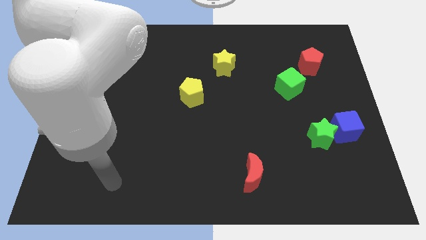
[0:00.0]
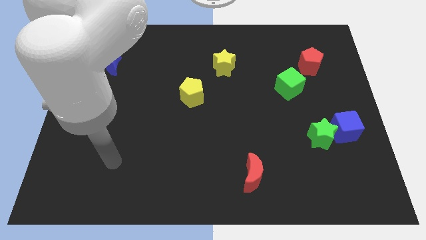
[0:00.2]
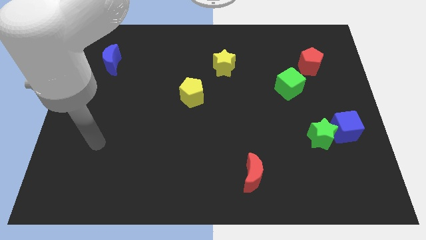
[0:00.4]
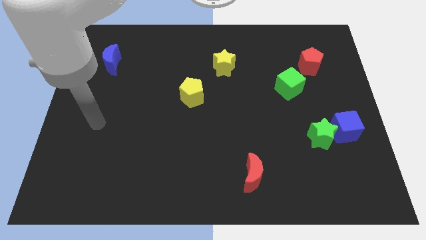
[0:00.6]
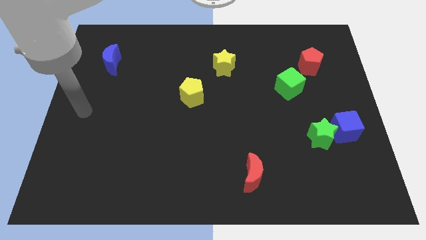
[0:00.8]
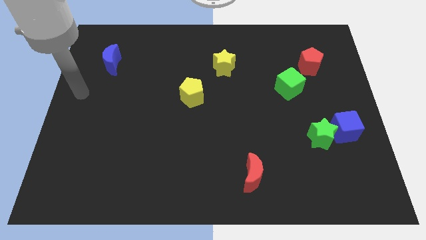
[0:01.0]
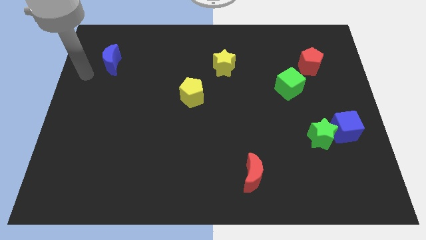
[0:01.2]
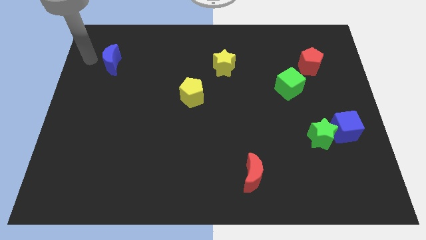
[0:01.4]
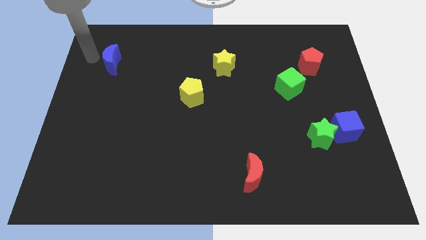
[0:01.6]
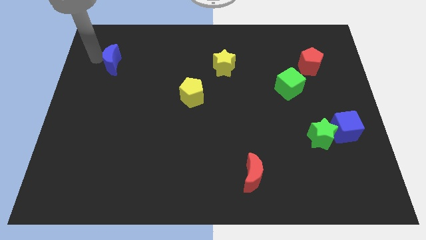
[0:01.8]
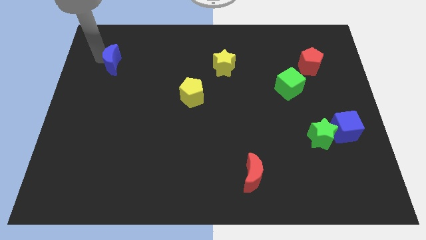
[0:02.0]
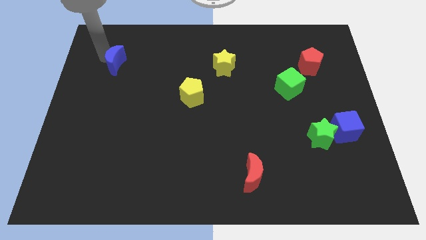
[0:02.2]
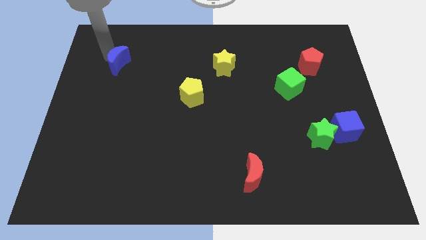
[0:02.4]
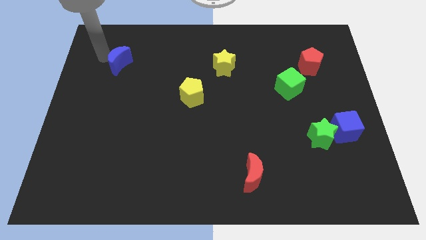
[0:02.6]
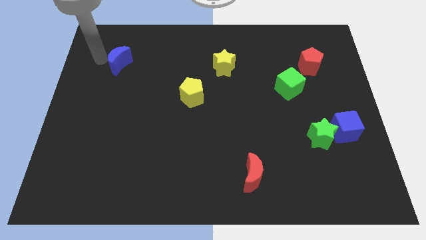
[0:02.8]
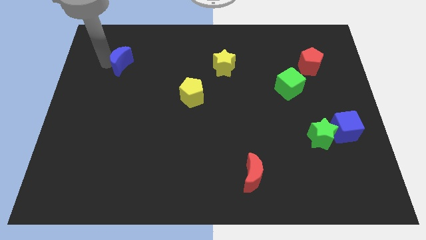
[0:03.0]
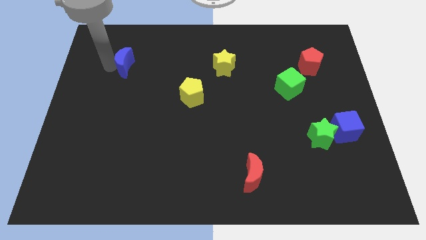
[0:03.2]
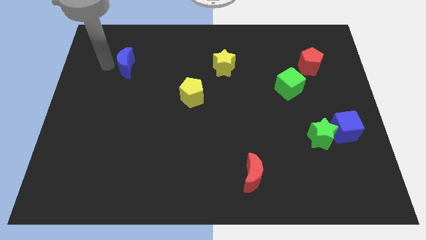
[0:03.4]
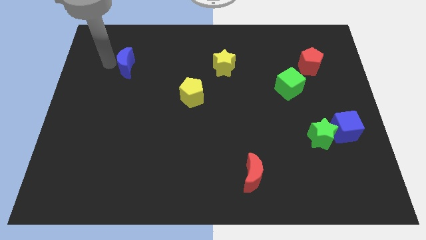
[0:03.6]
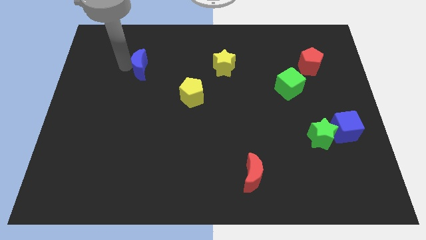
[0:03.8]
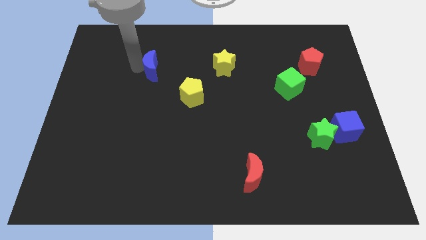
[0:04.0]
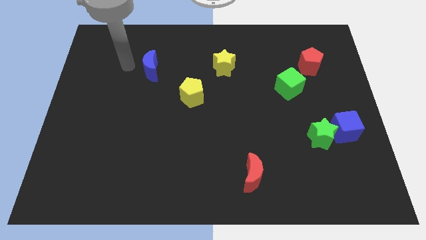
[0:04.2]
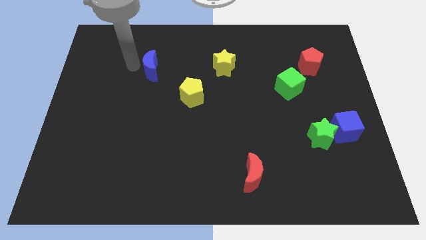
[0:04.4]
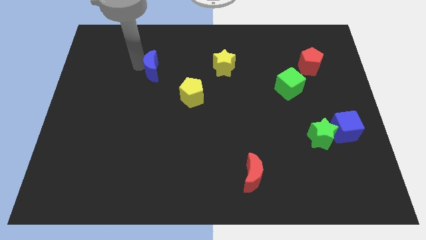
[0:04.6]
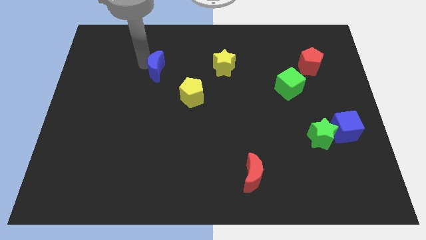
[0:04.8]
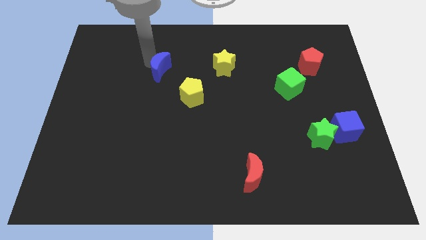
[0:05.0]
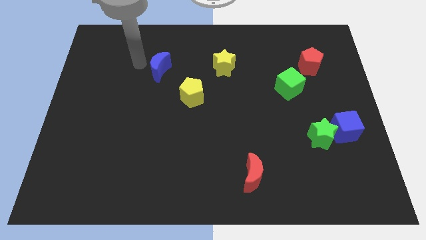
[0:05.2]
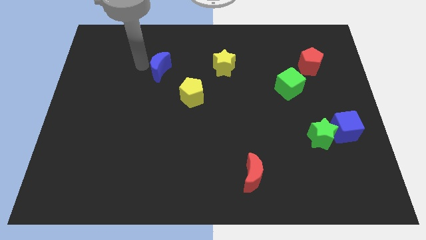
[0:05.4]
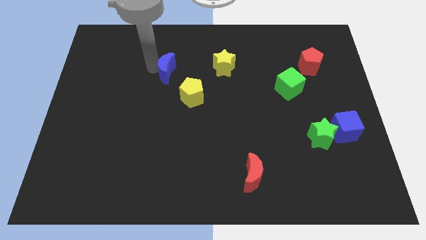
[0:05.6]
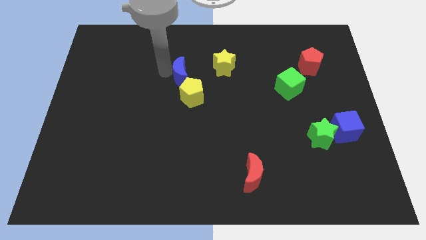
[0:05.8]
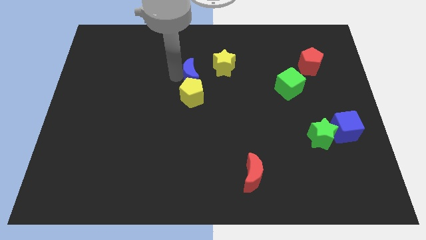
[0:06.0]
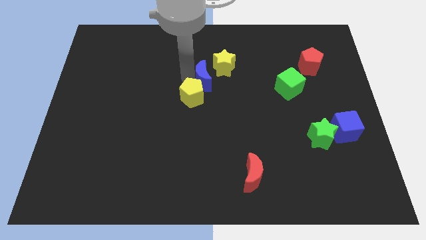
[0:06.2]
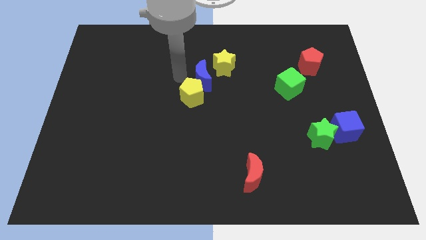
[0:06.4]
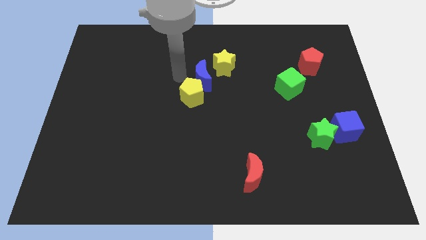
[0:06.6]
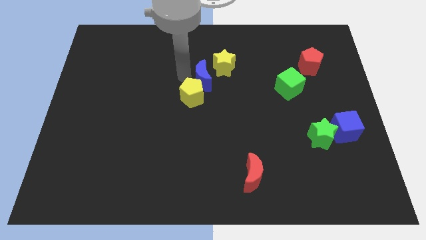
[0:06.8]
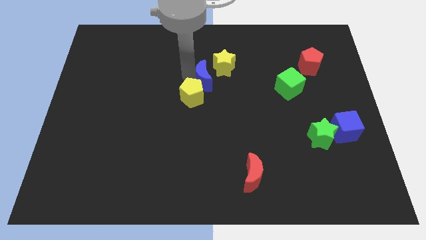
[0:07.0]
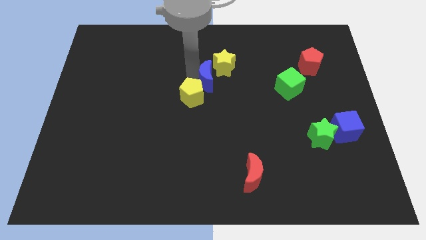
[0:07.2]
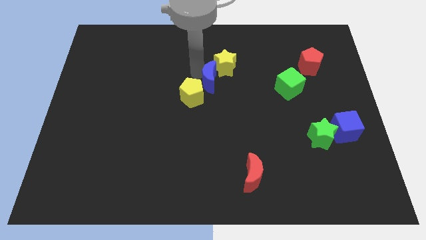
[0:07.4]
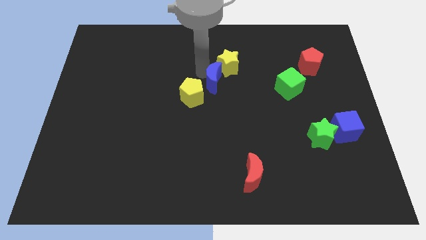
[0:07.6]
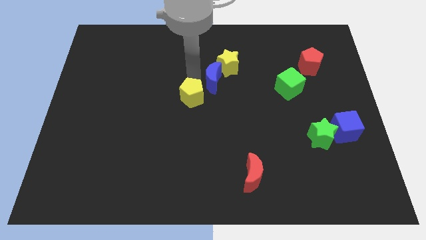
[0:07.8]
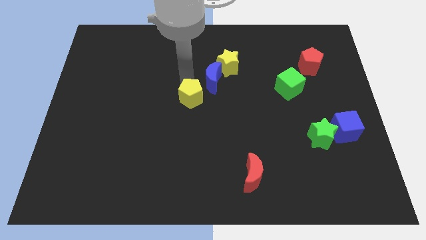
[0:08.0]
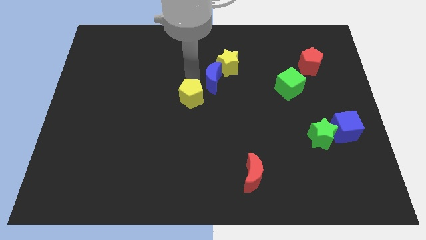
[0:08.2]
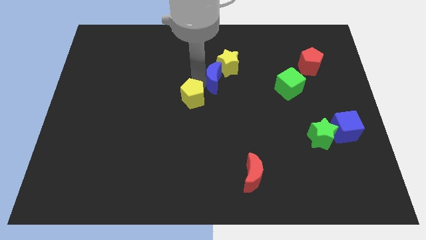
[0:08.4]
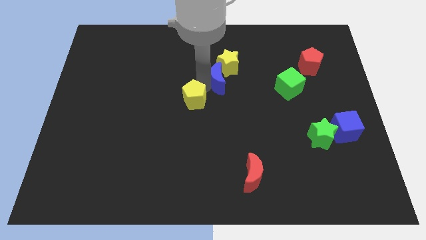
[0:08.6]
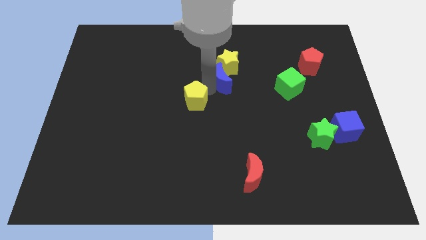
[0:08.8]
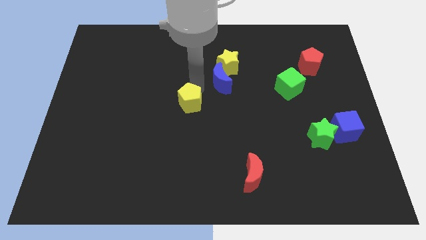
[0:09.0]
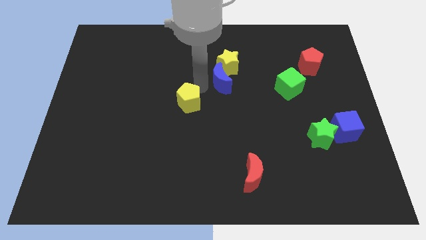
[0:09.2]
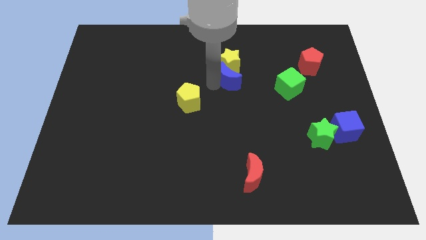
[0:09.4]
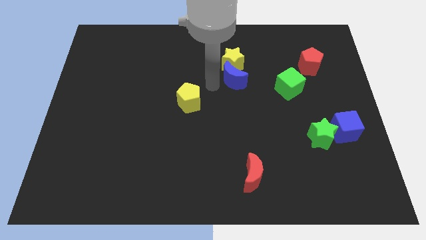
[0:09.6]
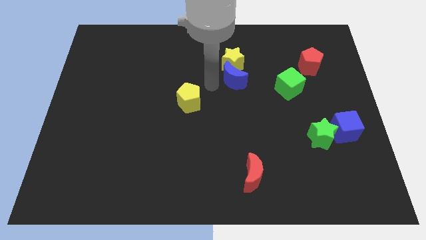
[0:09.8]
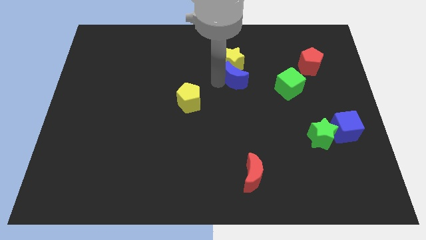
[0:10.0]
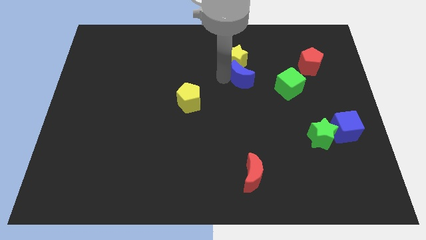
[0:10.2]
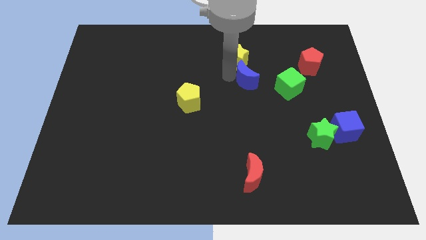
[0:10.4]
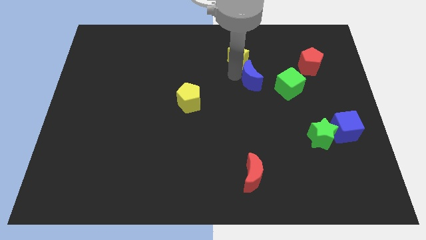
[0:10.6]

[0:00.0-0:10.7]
put the blue moon diagonally up and to the left of the green cube

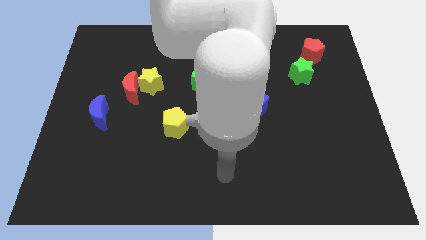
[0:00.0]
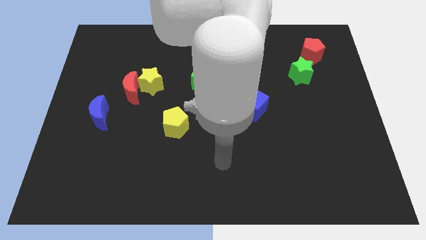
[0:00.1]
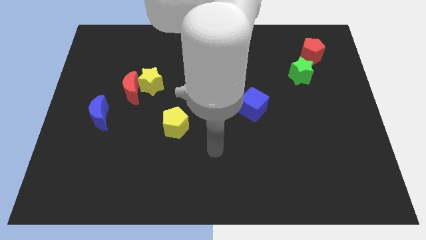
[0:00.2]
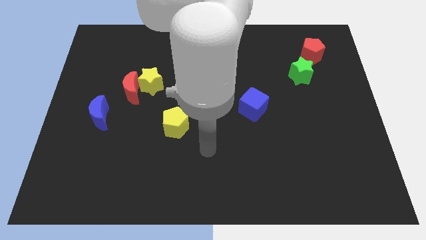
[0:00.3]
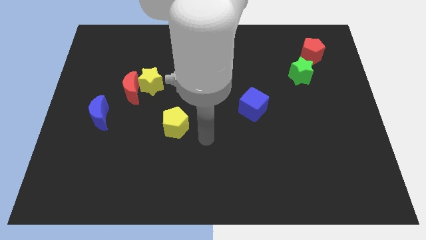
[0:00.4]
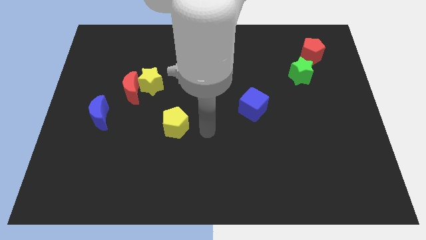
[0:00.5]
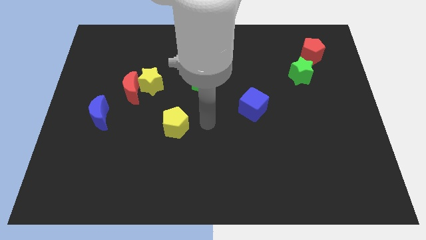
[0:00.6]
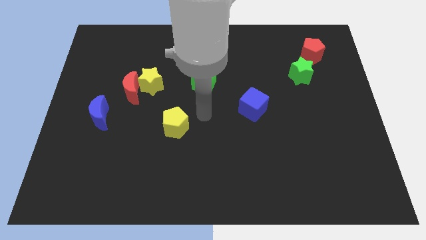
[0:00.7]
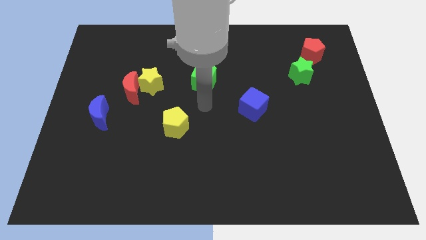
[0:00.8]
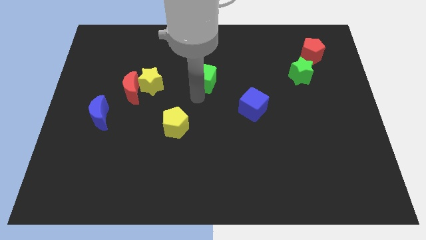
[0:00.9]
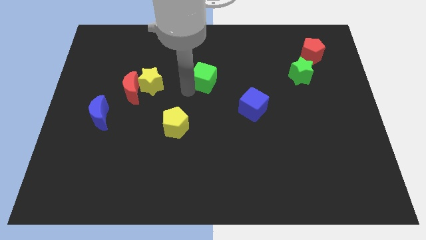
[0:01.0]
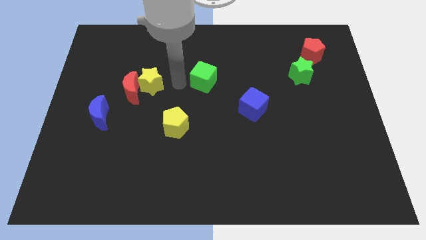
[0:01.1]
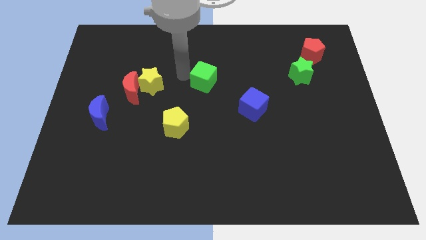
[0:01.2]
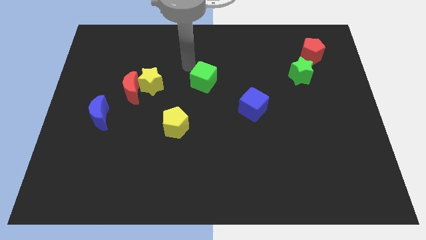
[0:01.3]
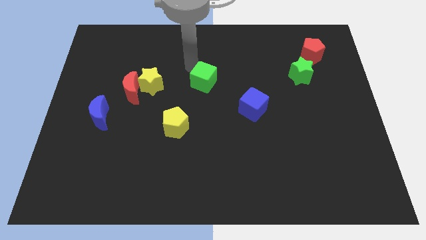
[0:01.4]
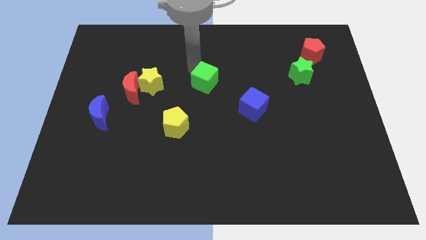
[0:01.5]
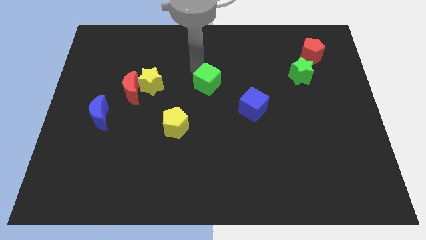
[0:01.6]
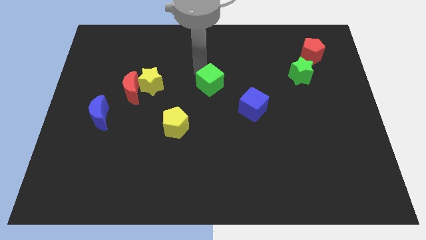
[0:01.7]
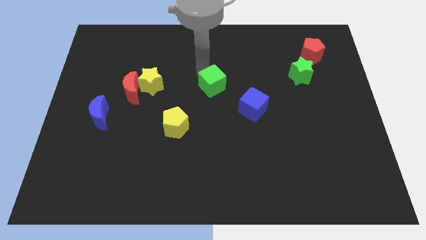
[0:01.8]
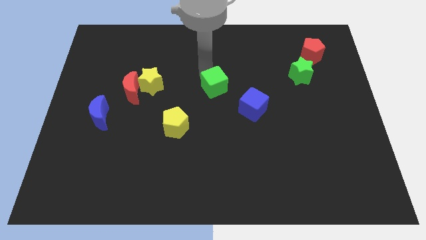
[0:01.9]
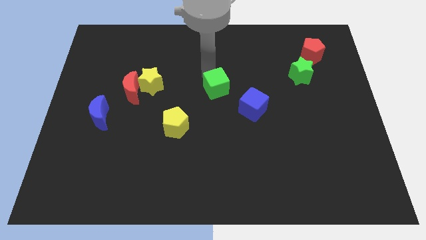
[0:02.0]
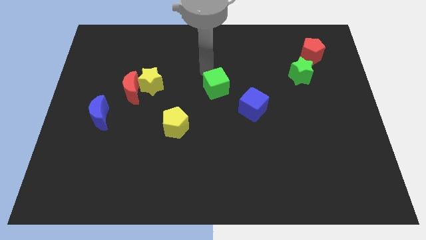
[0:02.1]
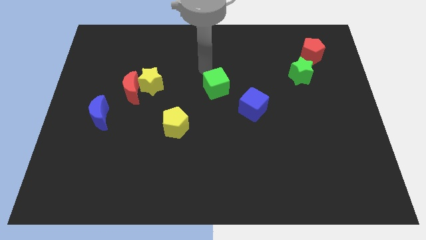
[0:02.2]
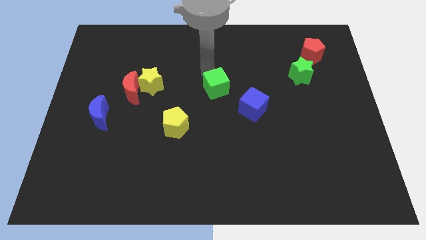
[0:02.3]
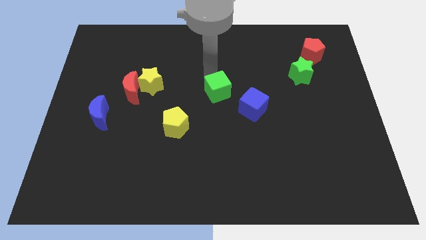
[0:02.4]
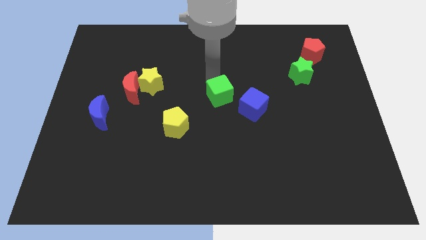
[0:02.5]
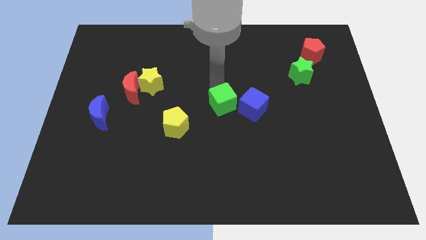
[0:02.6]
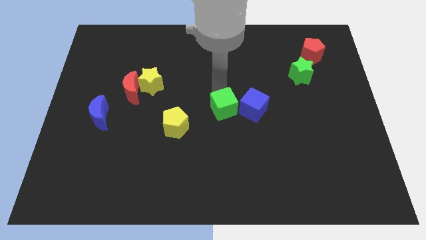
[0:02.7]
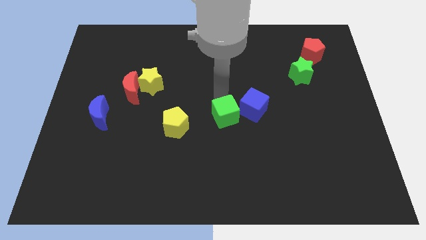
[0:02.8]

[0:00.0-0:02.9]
slide the green cube diagonally down and to the left of the blue cube
